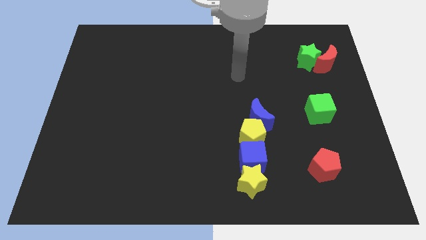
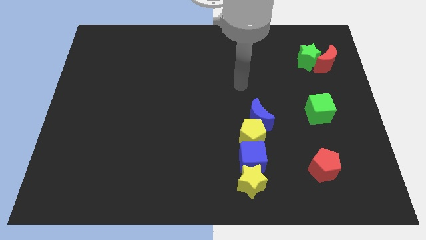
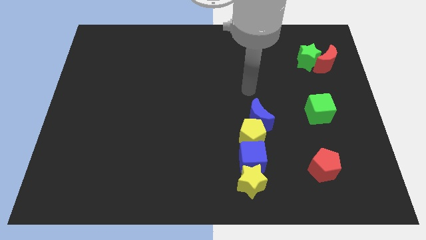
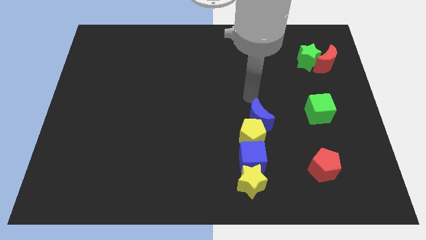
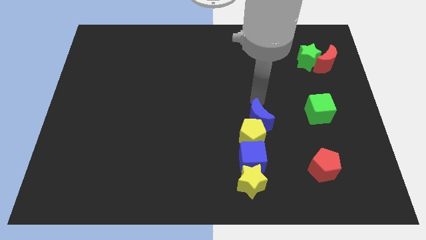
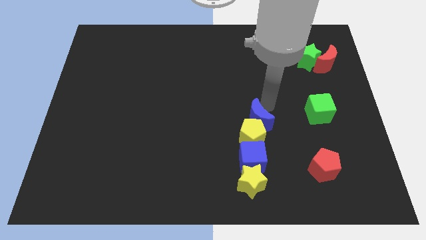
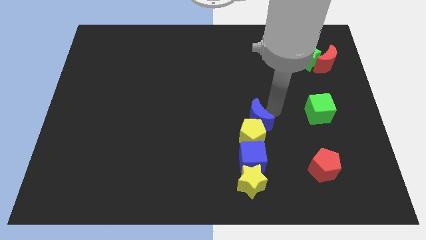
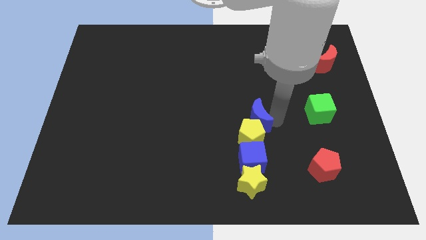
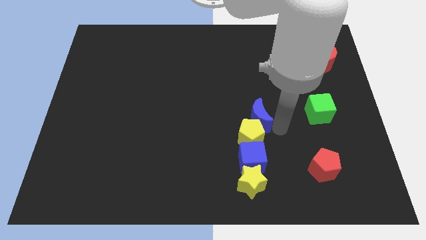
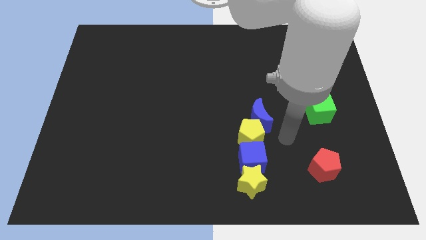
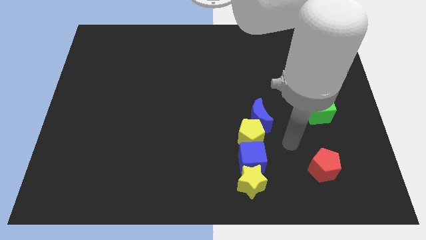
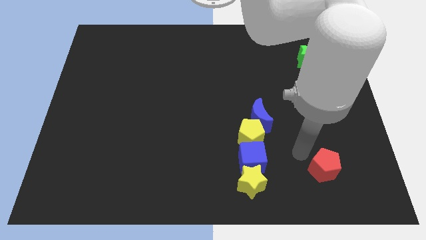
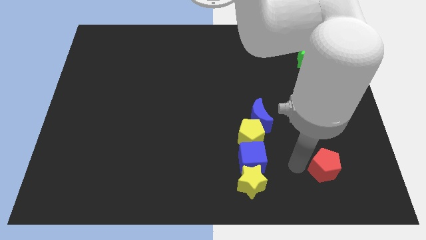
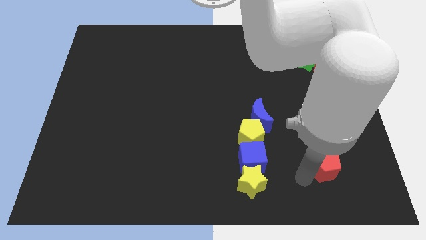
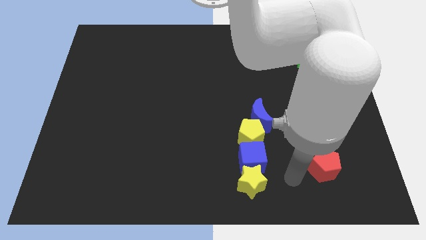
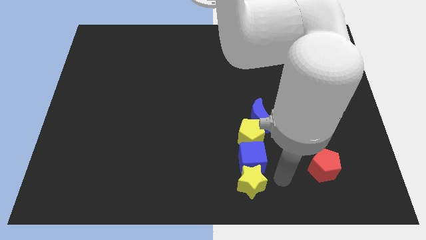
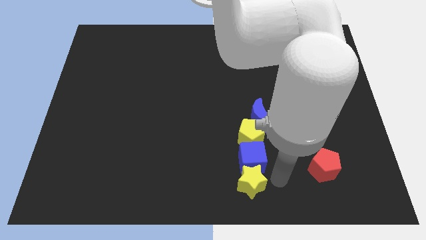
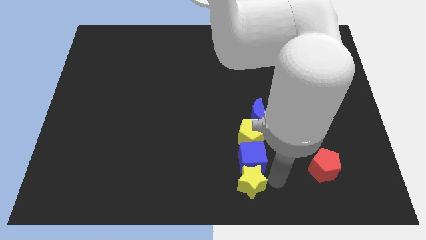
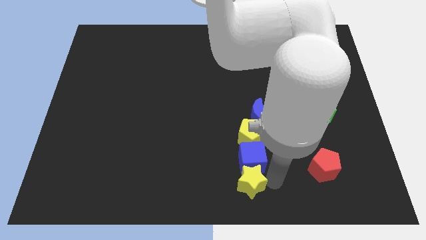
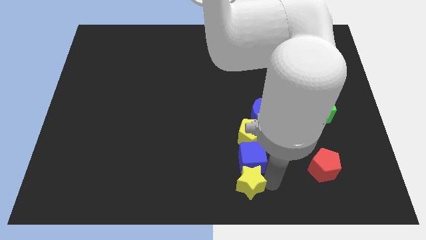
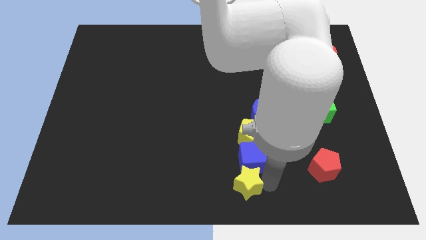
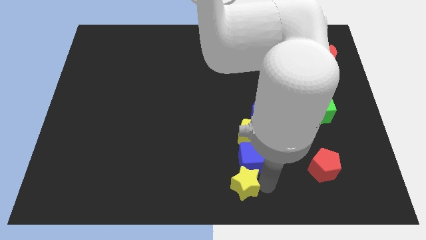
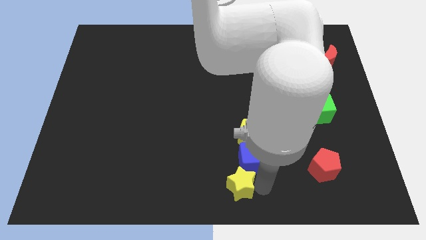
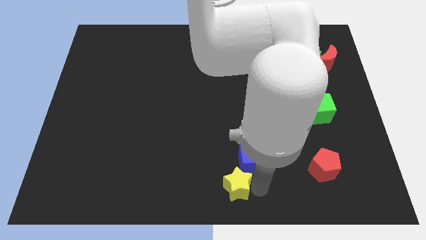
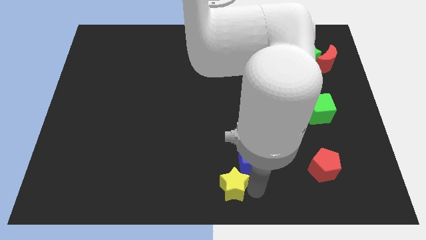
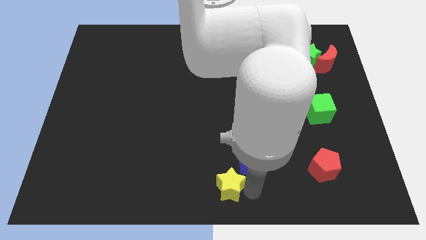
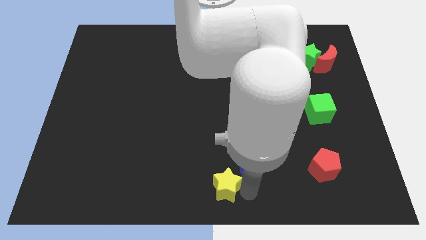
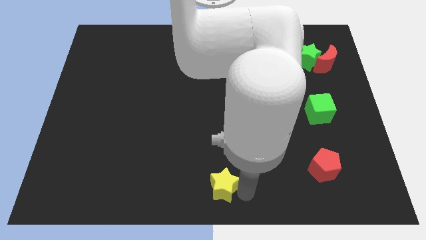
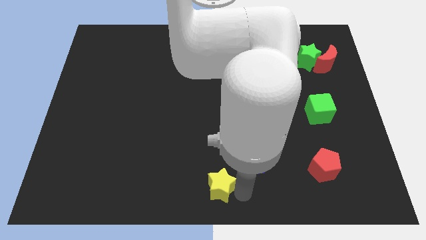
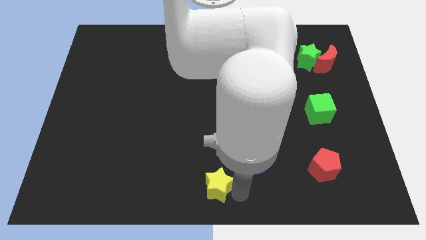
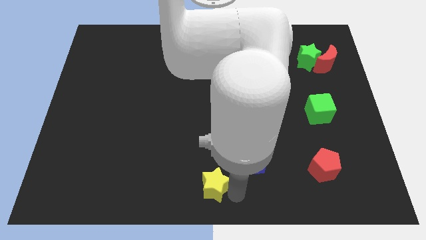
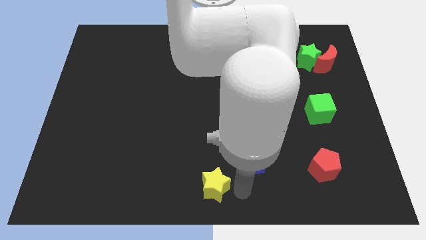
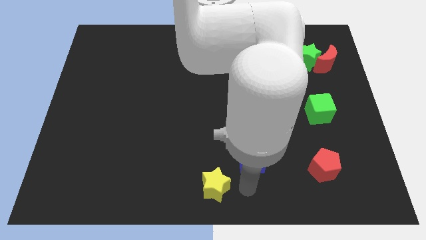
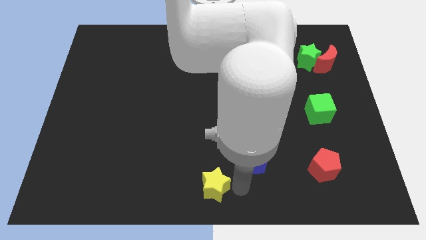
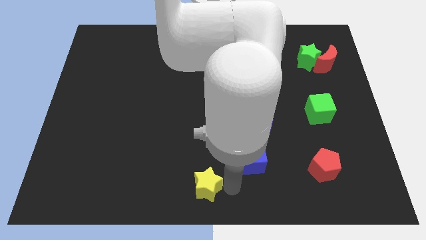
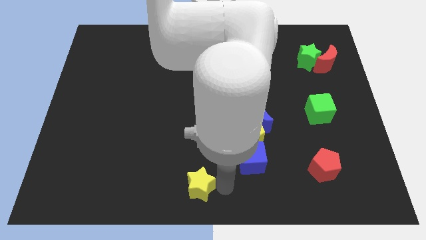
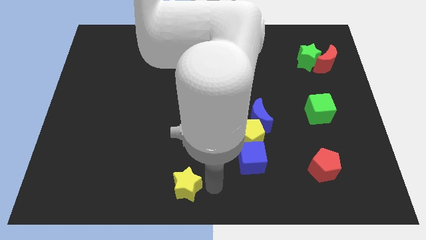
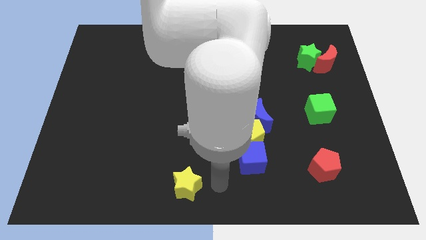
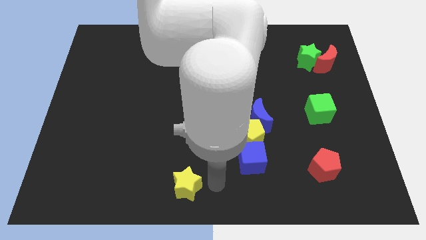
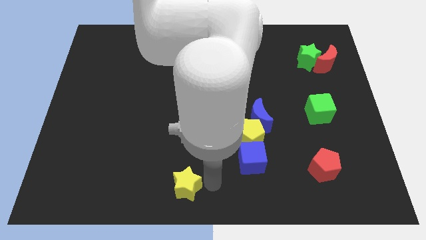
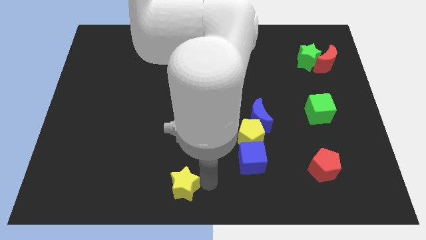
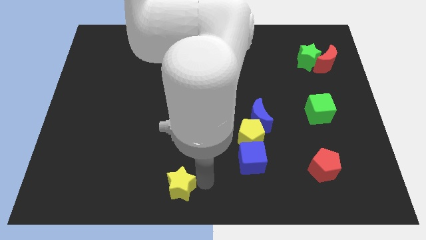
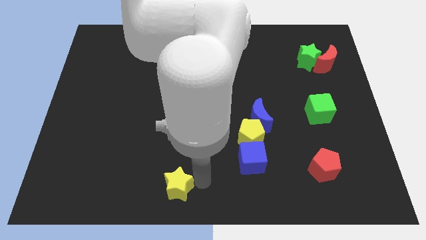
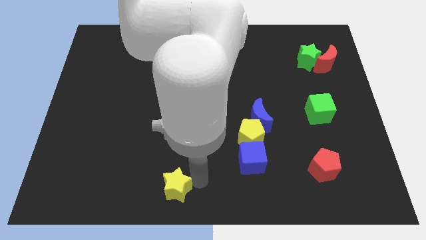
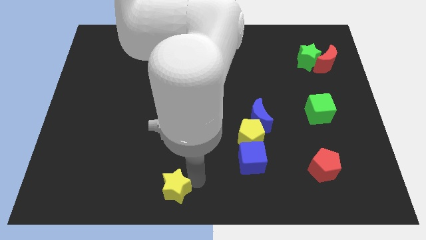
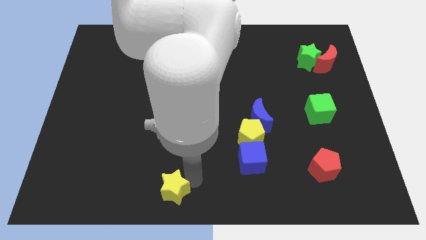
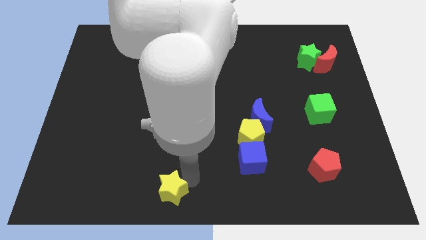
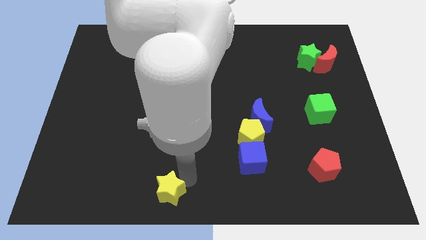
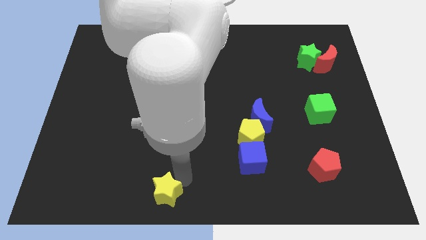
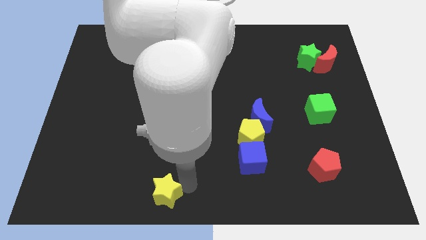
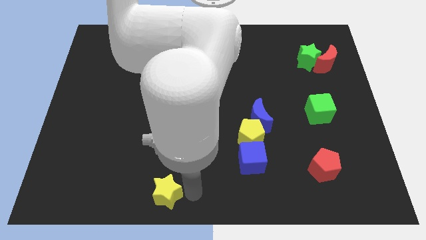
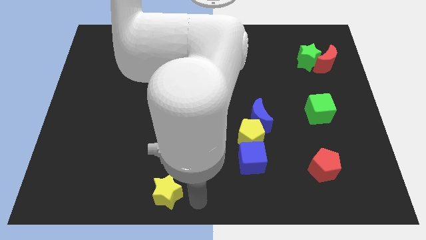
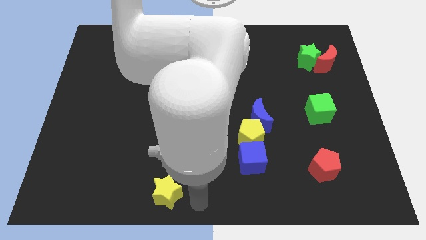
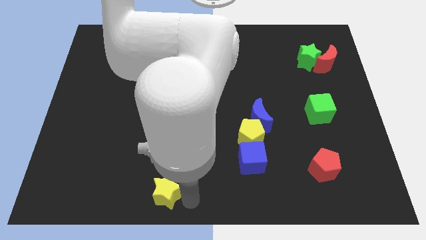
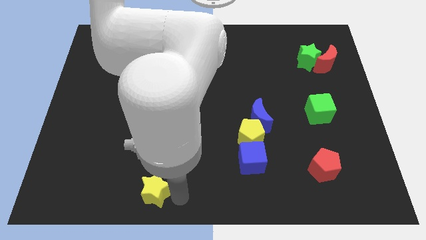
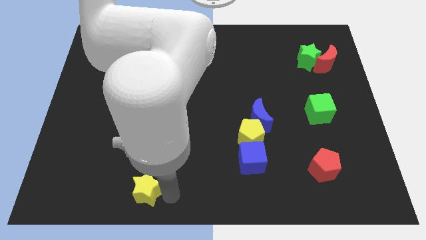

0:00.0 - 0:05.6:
push the yellow star left

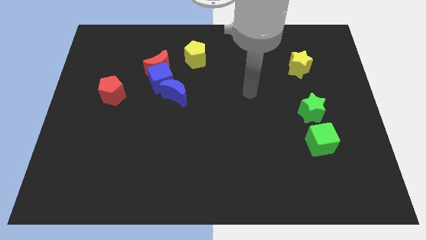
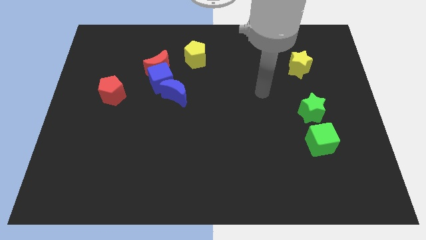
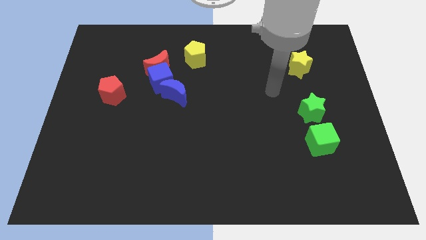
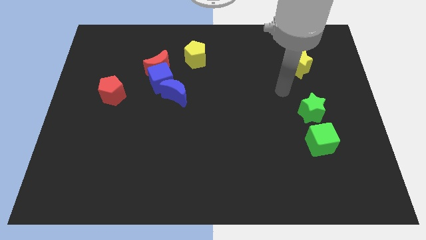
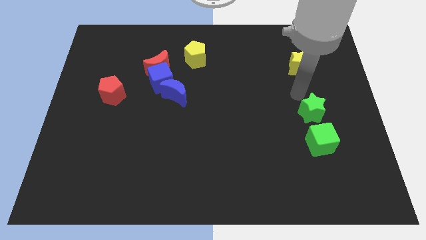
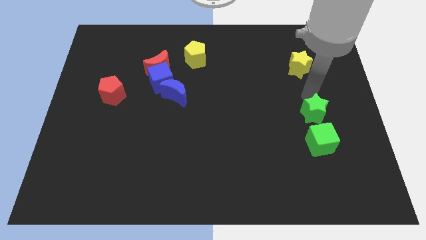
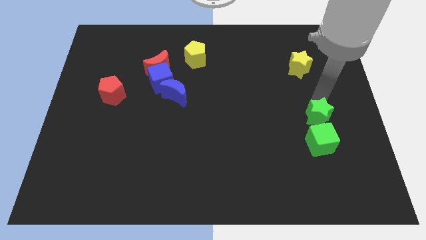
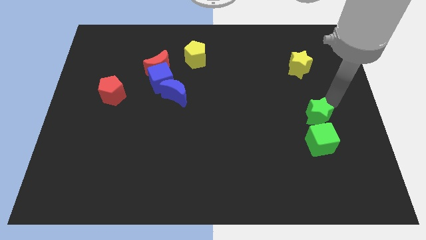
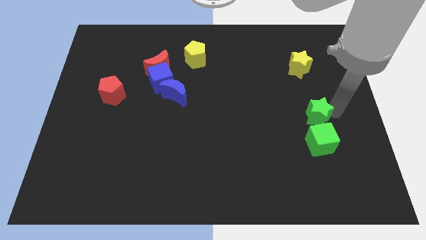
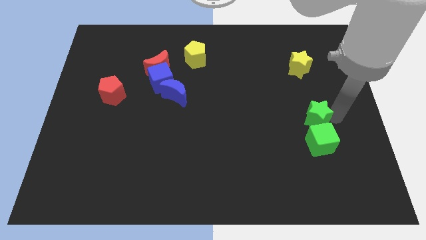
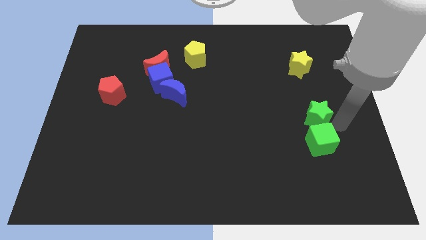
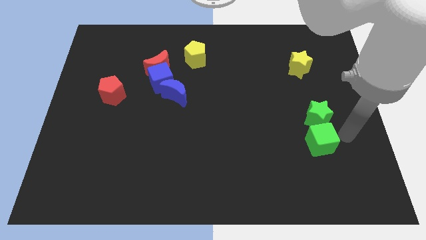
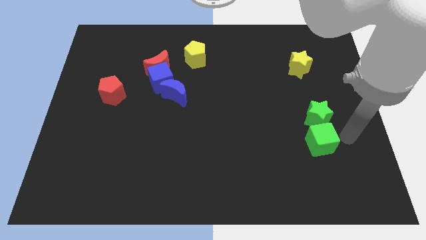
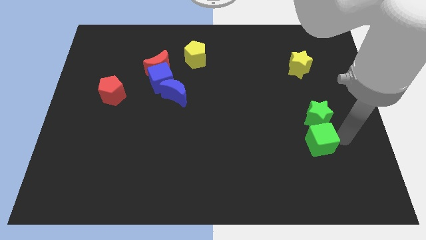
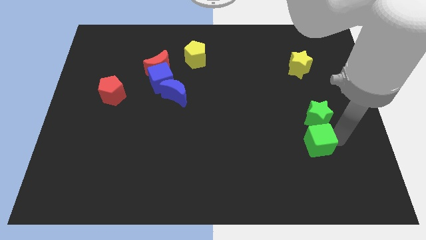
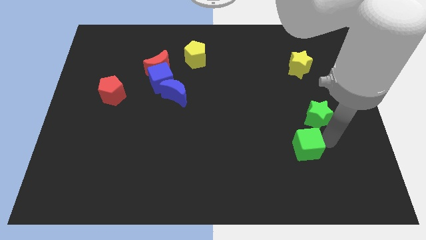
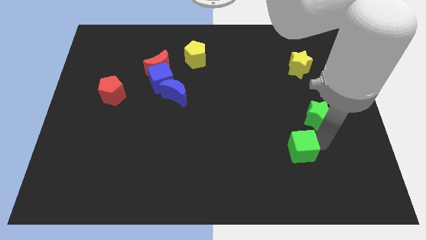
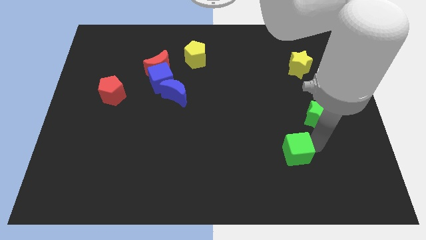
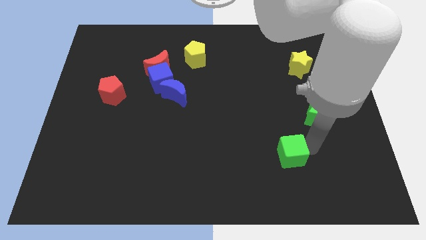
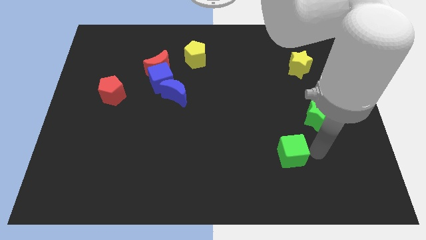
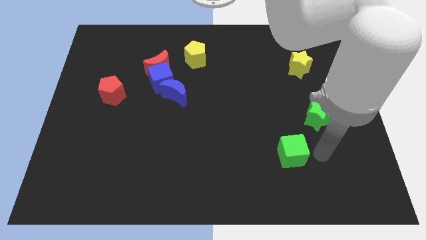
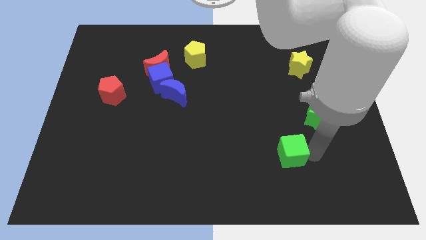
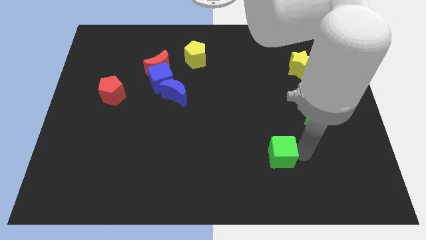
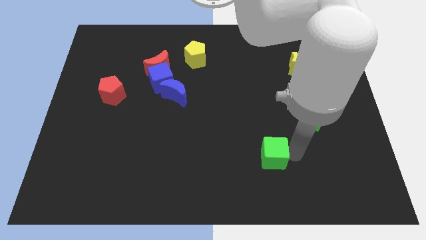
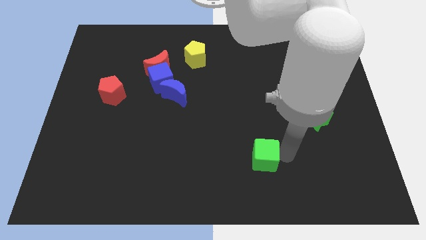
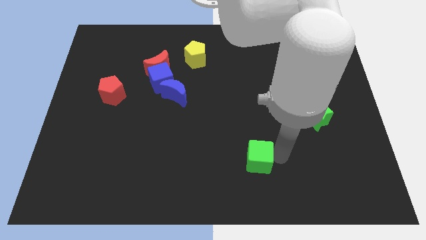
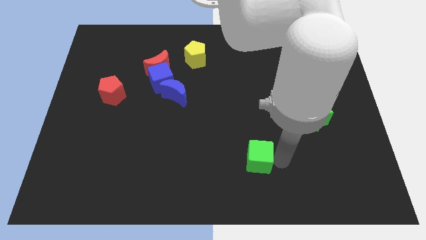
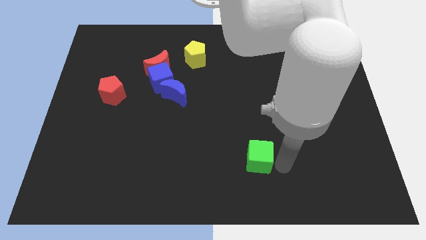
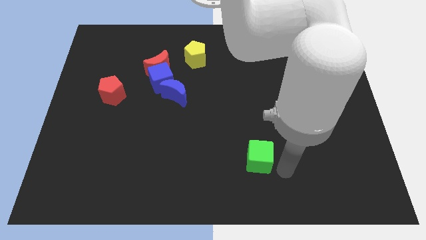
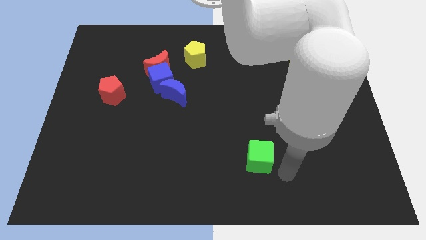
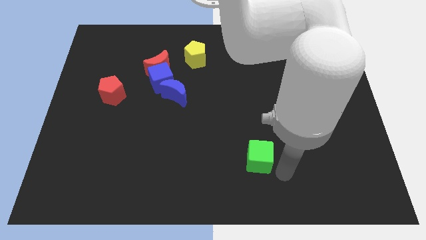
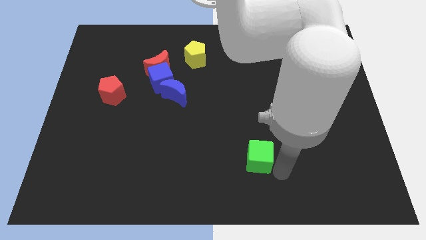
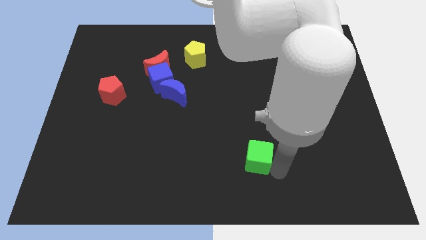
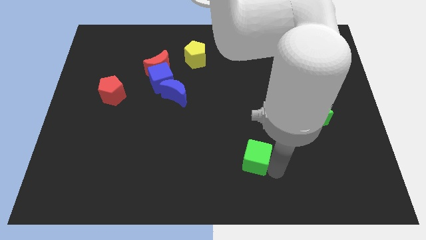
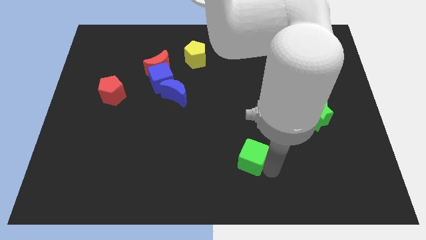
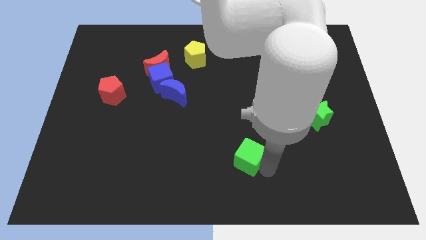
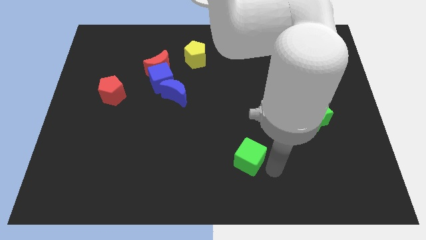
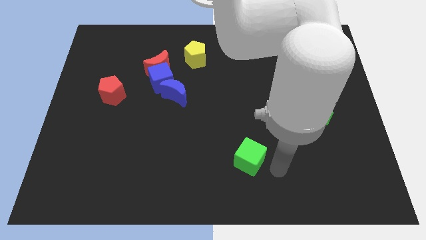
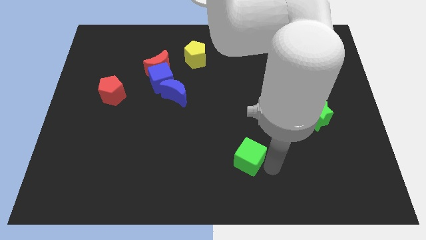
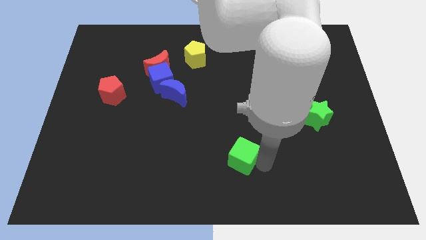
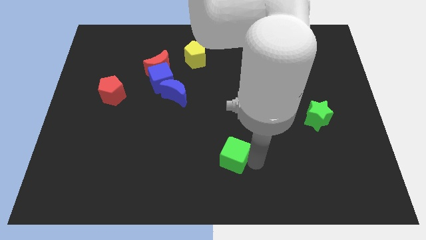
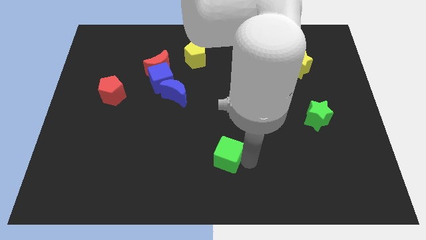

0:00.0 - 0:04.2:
slide the green cube to the left
